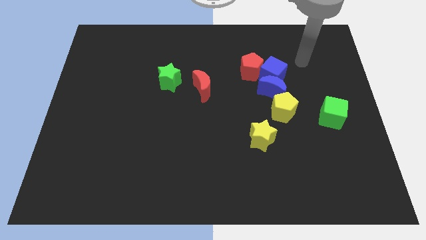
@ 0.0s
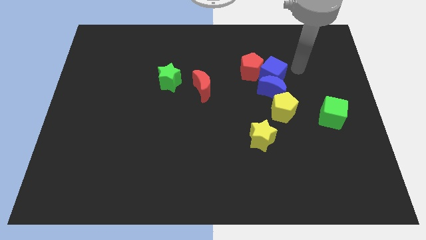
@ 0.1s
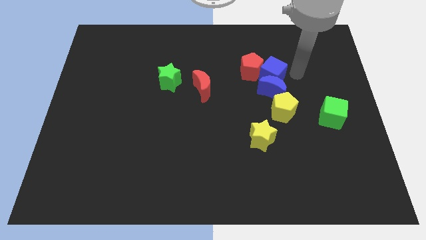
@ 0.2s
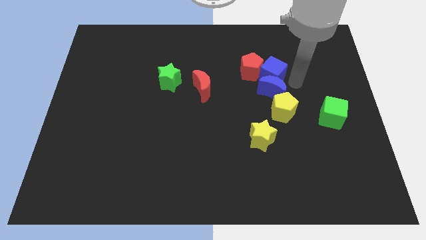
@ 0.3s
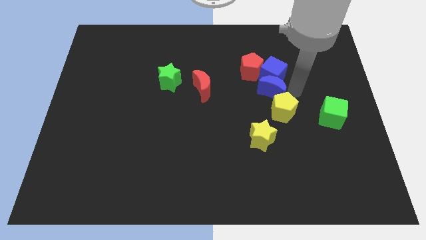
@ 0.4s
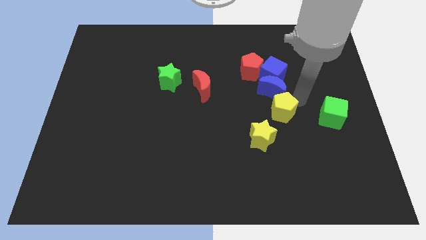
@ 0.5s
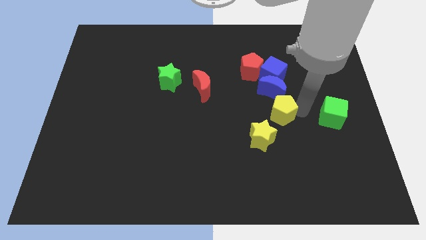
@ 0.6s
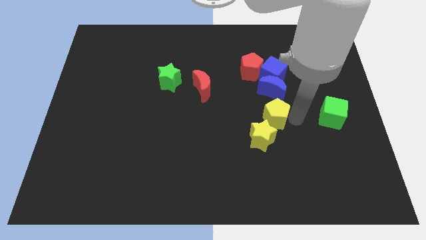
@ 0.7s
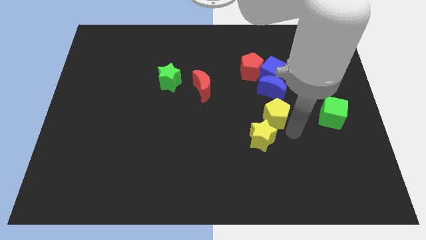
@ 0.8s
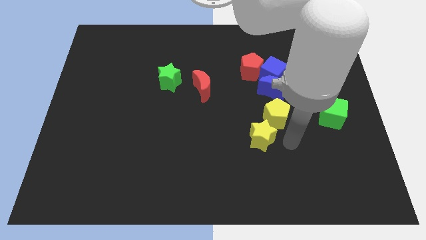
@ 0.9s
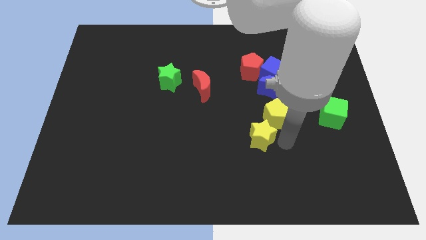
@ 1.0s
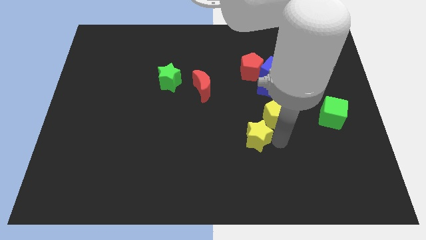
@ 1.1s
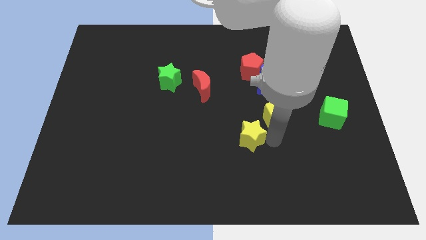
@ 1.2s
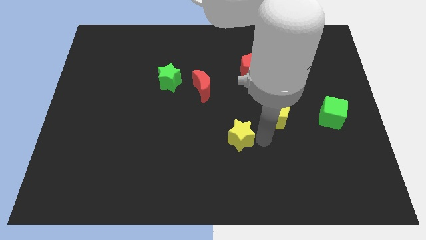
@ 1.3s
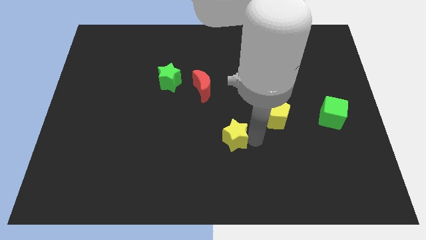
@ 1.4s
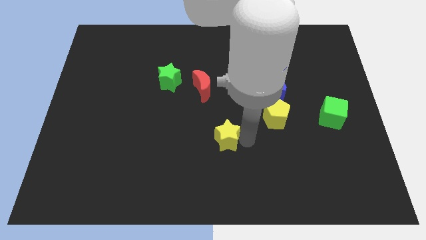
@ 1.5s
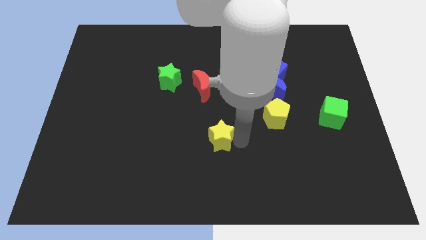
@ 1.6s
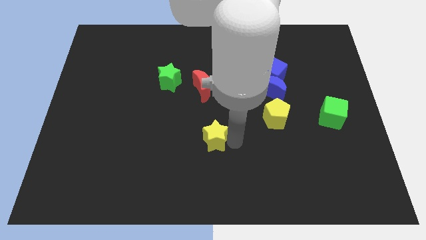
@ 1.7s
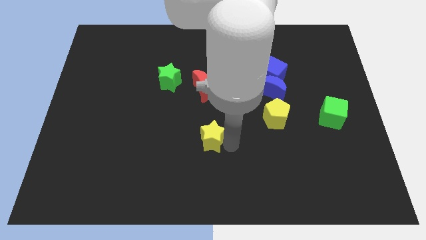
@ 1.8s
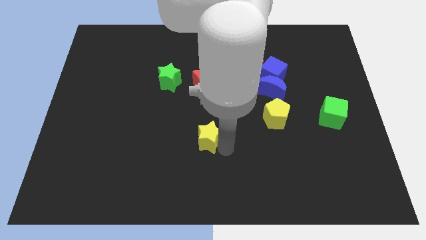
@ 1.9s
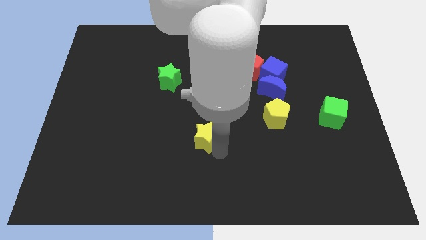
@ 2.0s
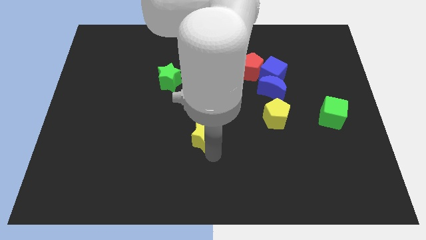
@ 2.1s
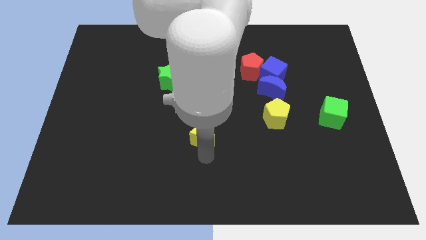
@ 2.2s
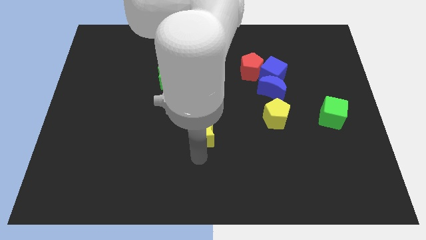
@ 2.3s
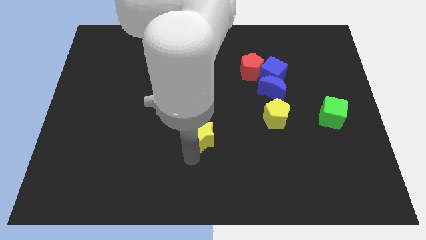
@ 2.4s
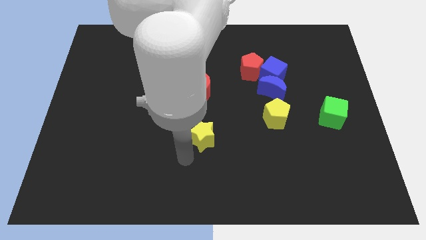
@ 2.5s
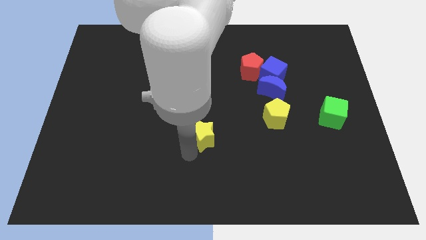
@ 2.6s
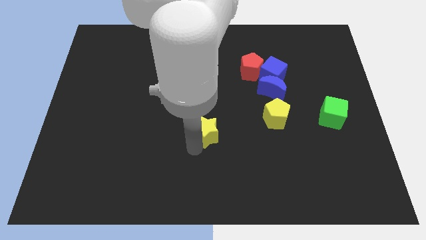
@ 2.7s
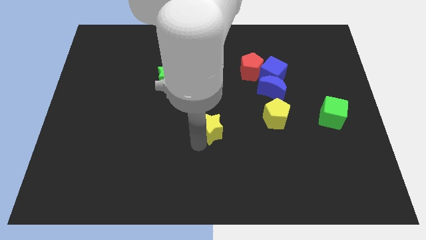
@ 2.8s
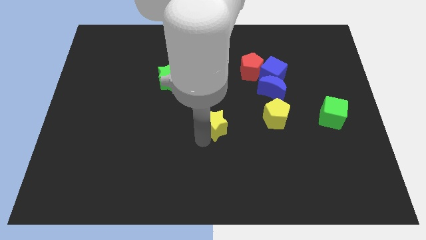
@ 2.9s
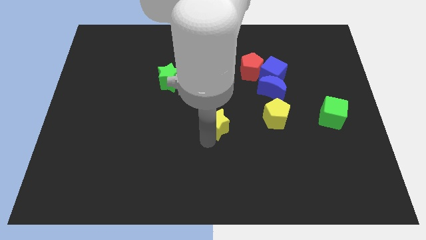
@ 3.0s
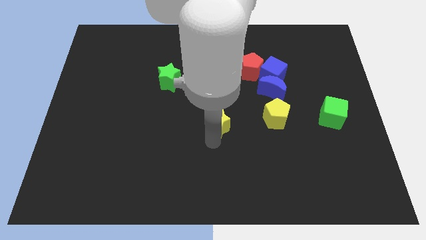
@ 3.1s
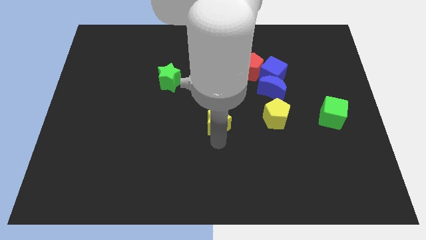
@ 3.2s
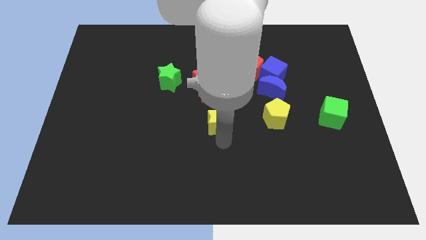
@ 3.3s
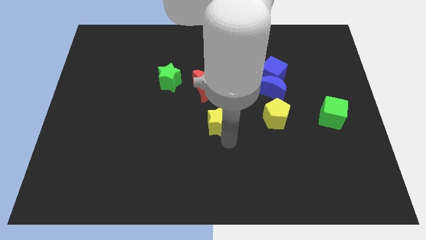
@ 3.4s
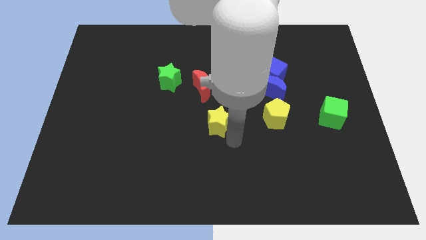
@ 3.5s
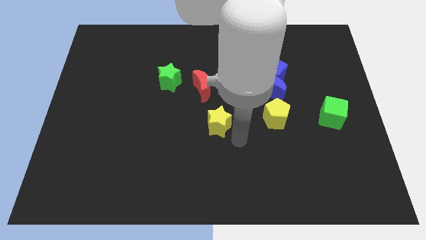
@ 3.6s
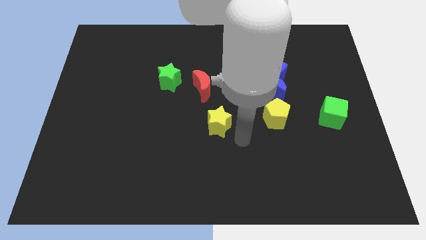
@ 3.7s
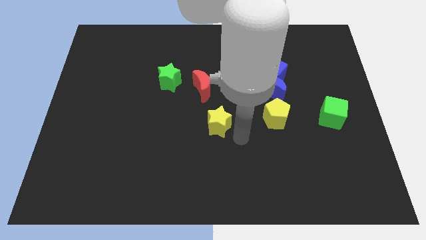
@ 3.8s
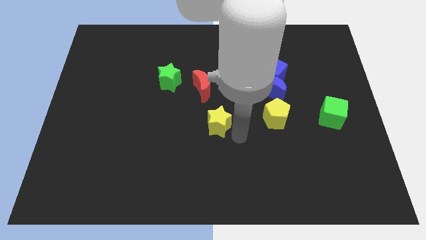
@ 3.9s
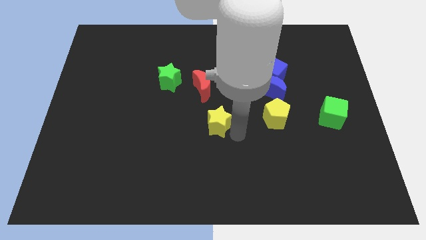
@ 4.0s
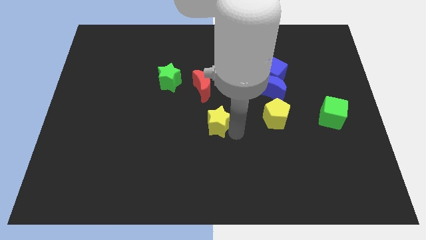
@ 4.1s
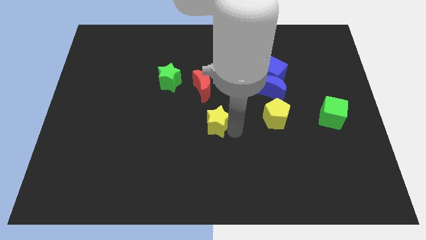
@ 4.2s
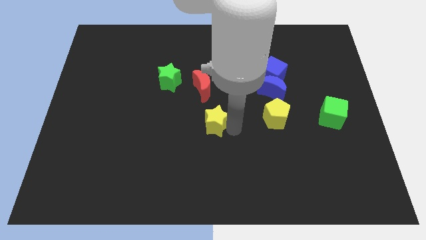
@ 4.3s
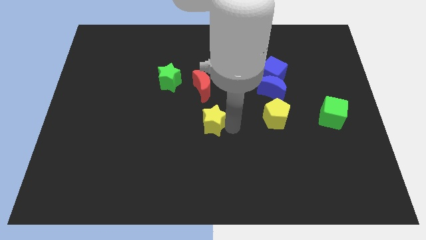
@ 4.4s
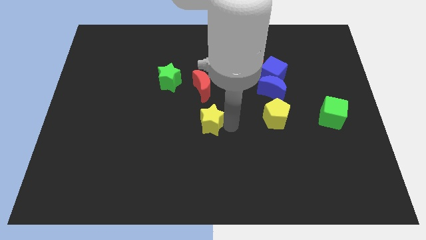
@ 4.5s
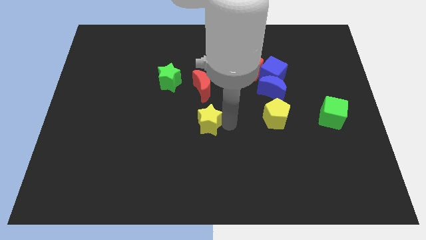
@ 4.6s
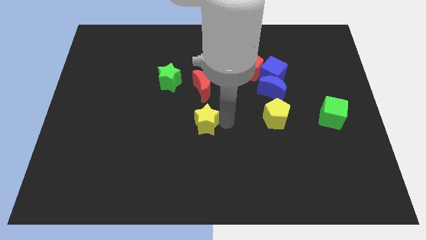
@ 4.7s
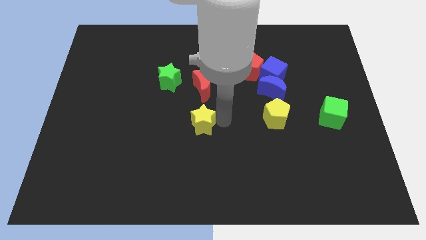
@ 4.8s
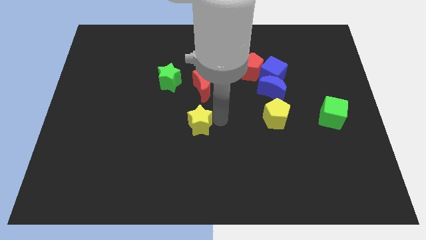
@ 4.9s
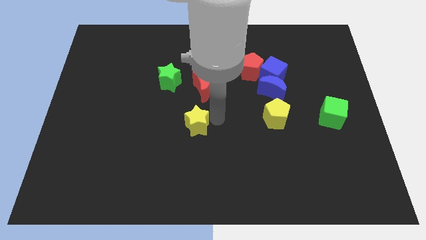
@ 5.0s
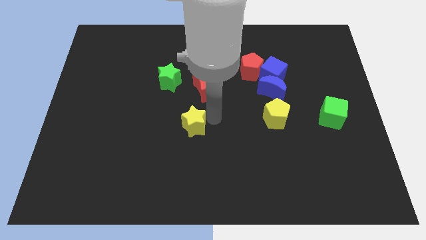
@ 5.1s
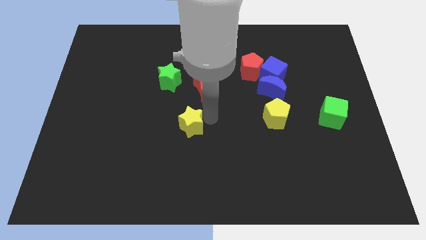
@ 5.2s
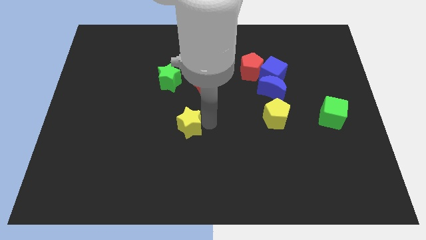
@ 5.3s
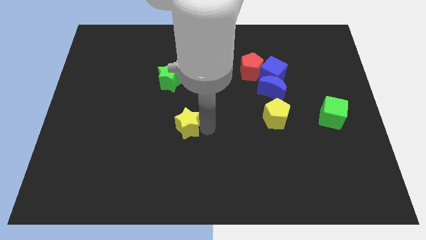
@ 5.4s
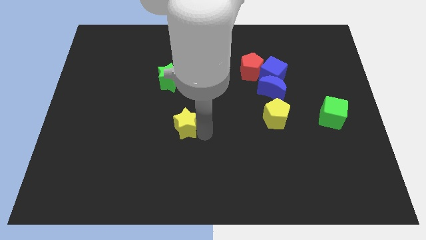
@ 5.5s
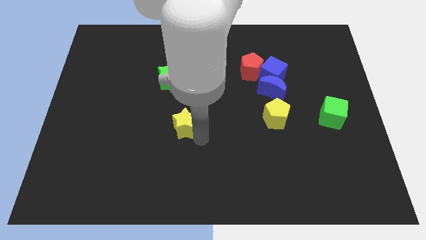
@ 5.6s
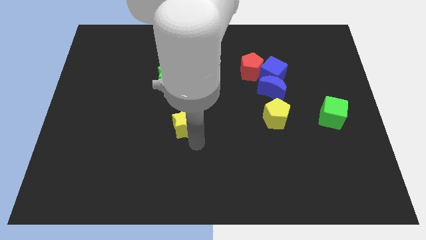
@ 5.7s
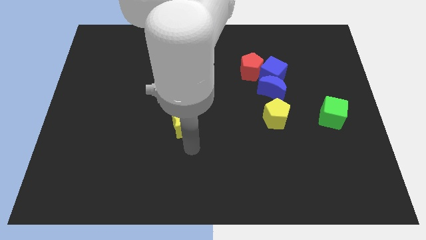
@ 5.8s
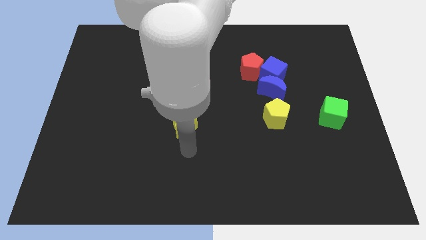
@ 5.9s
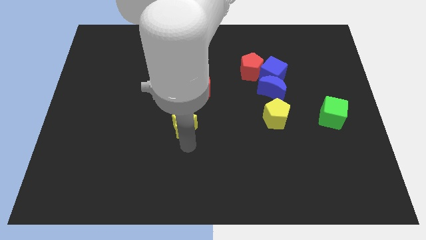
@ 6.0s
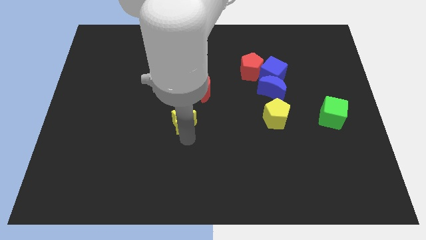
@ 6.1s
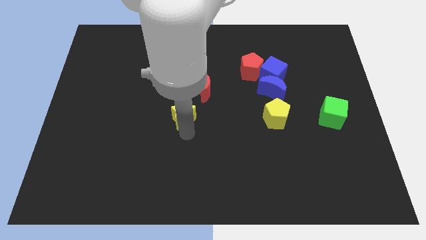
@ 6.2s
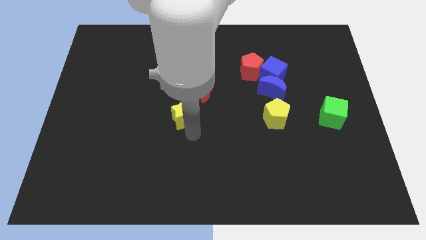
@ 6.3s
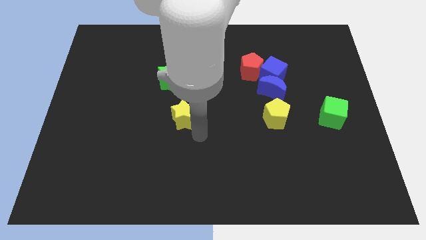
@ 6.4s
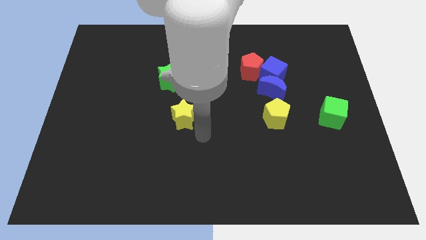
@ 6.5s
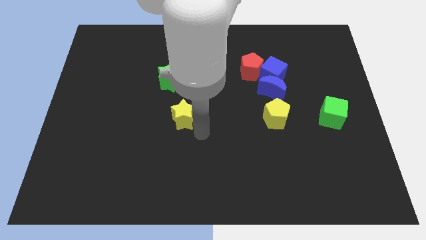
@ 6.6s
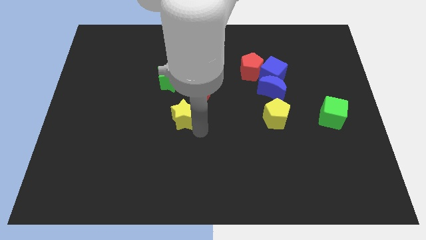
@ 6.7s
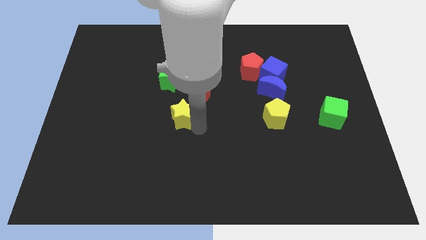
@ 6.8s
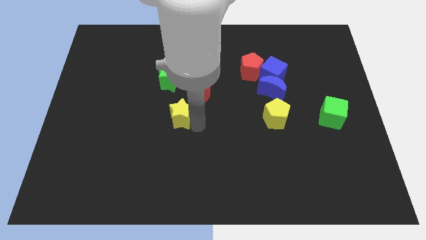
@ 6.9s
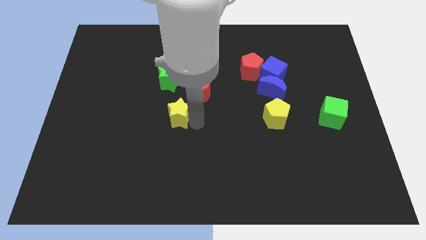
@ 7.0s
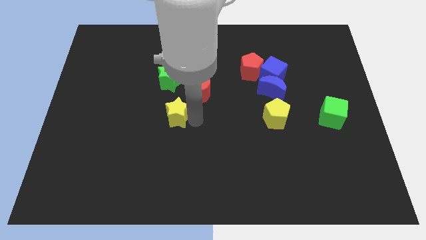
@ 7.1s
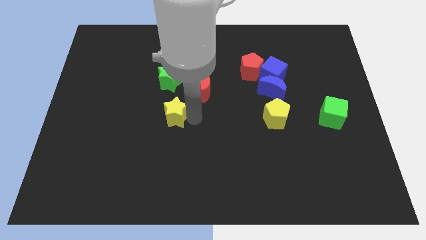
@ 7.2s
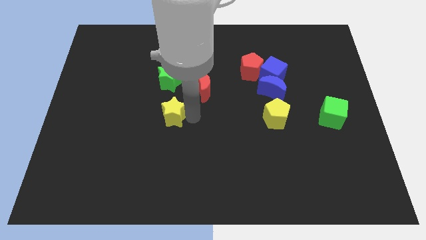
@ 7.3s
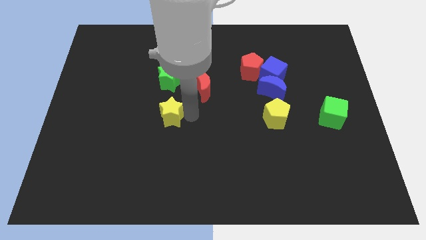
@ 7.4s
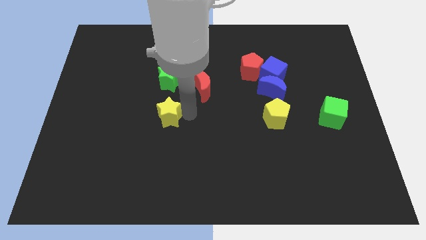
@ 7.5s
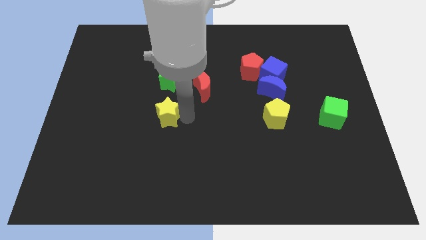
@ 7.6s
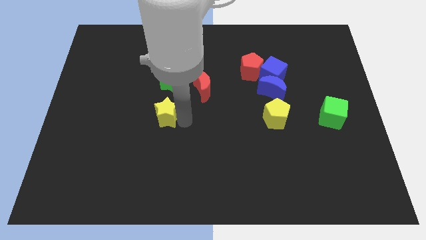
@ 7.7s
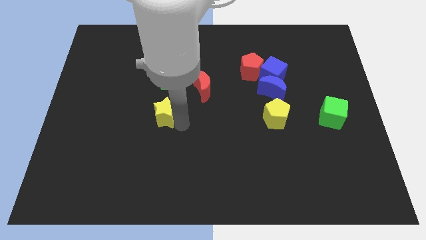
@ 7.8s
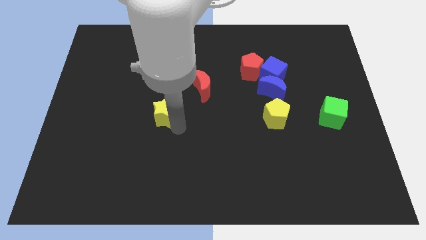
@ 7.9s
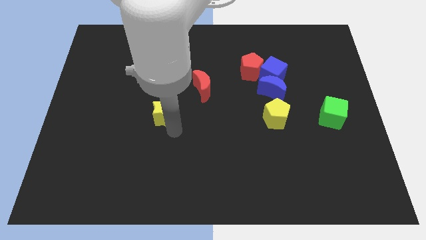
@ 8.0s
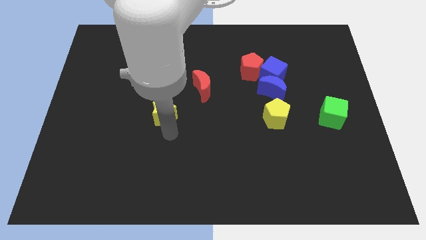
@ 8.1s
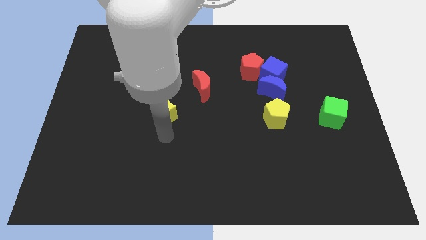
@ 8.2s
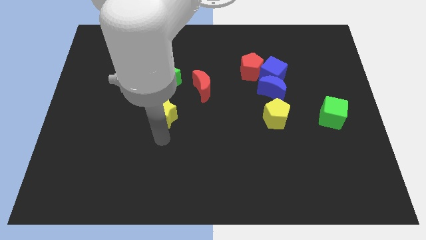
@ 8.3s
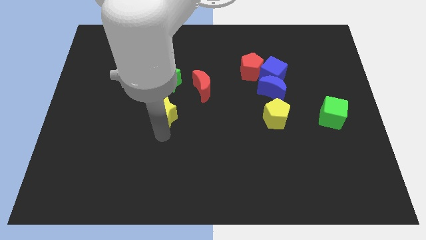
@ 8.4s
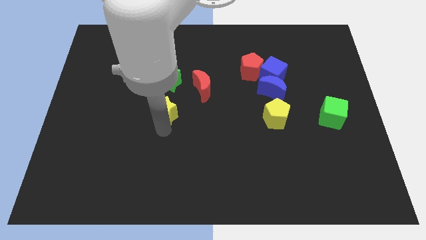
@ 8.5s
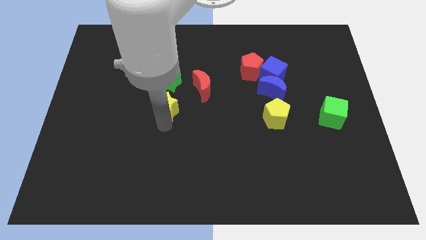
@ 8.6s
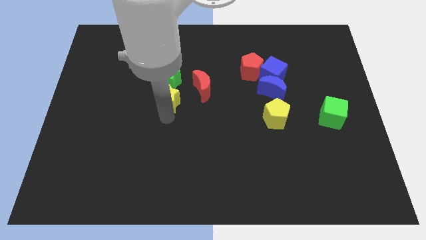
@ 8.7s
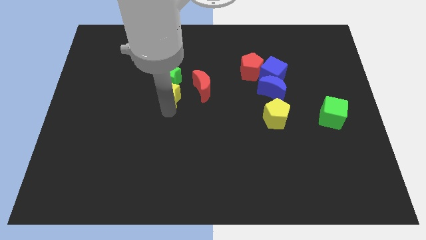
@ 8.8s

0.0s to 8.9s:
push the yellow star towards the green star
